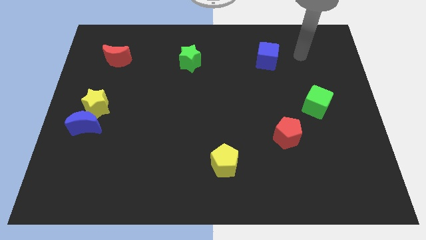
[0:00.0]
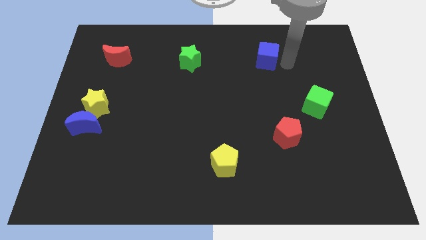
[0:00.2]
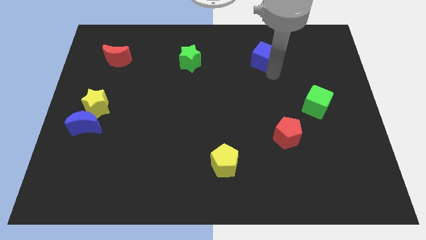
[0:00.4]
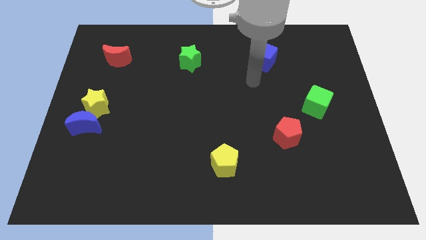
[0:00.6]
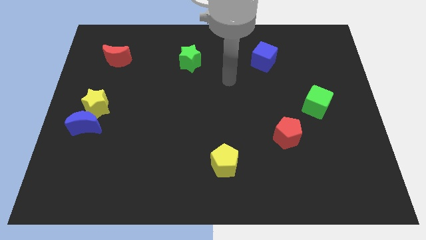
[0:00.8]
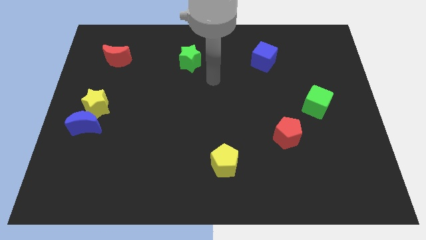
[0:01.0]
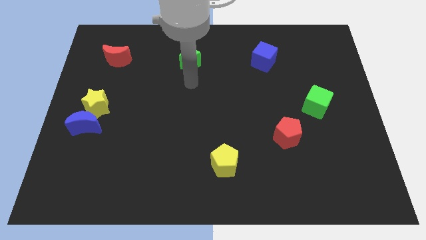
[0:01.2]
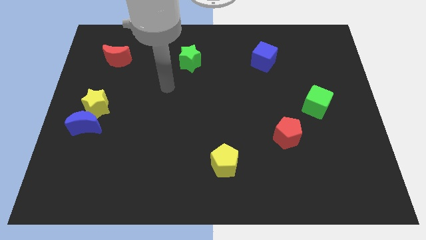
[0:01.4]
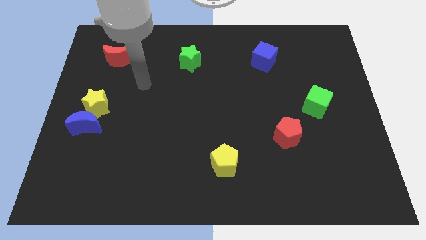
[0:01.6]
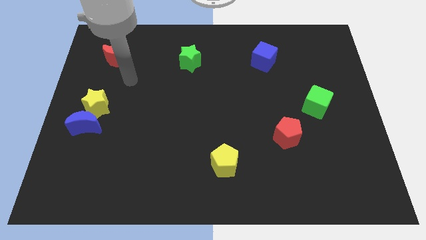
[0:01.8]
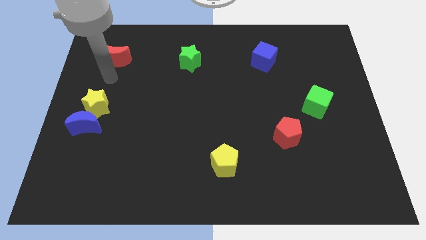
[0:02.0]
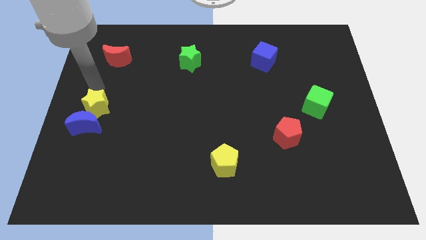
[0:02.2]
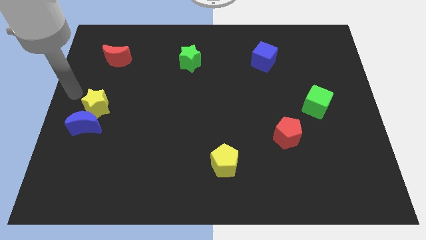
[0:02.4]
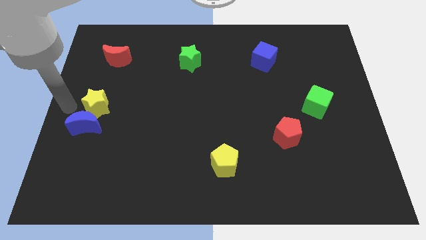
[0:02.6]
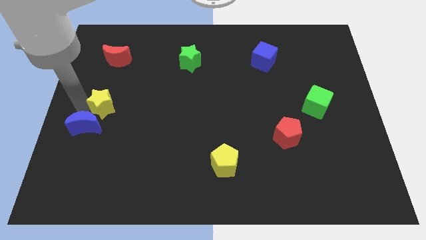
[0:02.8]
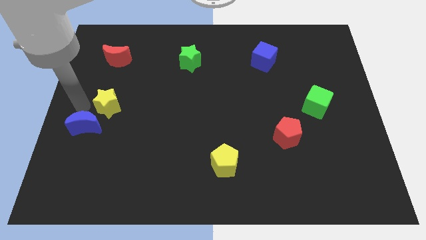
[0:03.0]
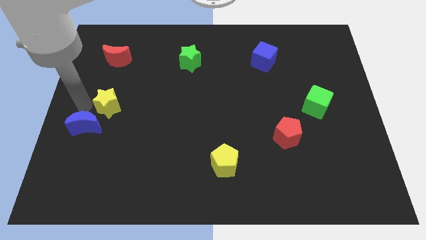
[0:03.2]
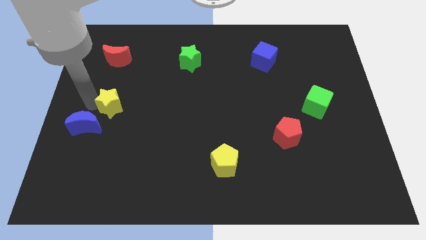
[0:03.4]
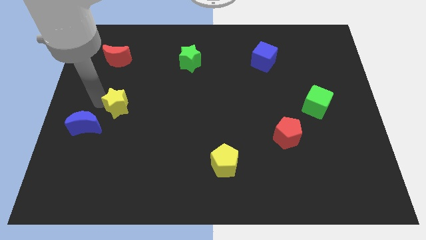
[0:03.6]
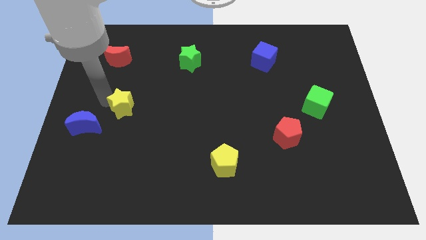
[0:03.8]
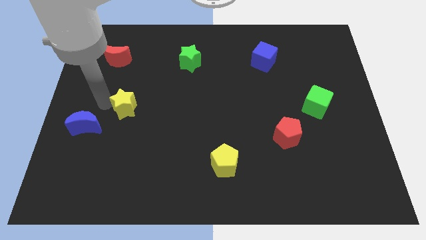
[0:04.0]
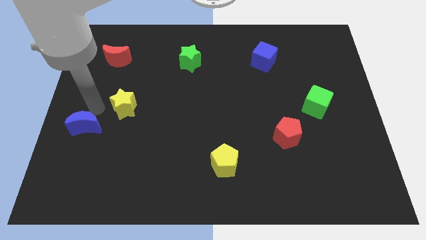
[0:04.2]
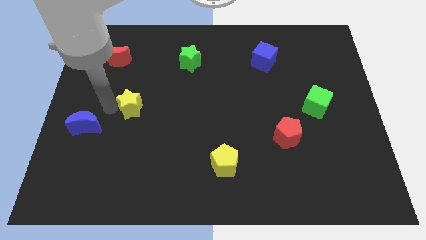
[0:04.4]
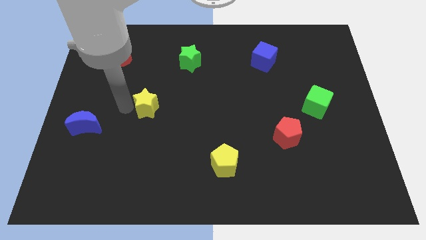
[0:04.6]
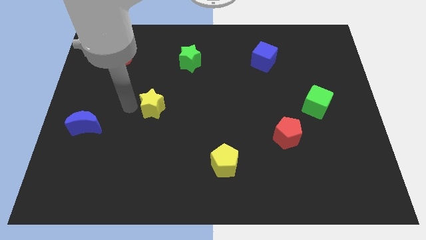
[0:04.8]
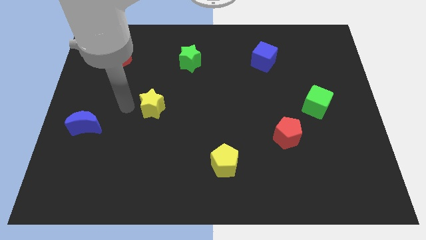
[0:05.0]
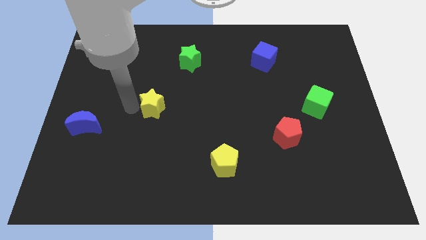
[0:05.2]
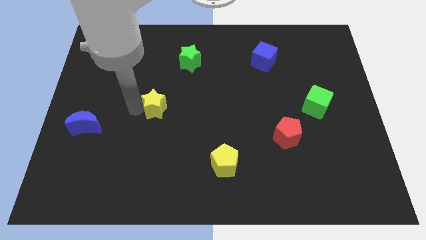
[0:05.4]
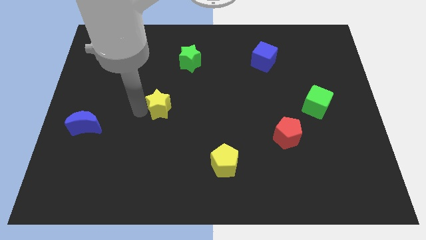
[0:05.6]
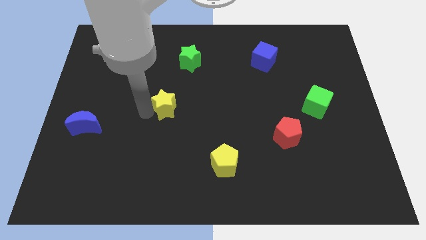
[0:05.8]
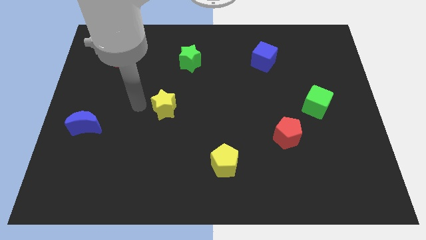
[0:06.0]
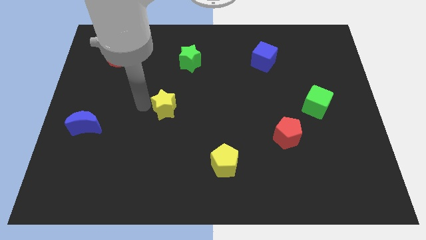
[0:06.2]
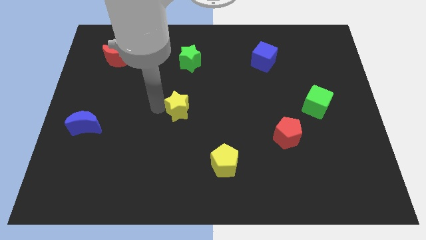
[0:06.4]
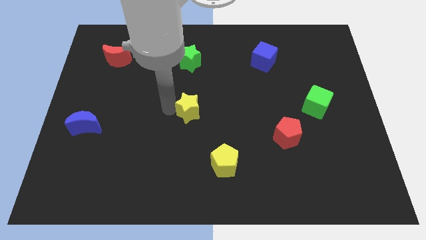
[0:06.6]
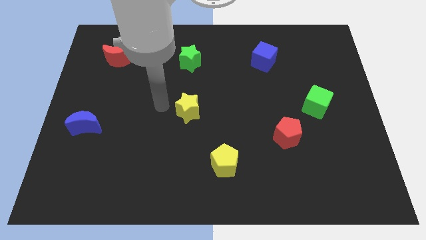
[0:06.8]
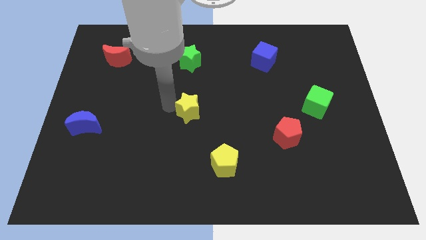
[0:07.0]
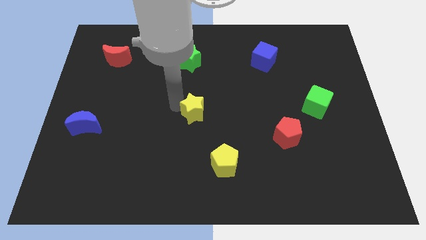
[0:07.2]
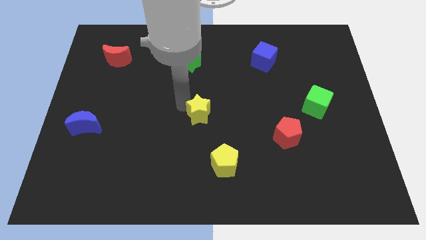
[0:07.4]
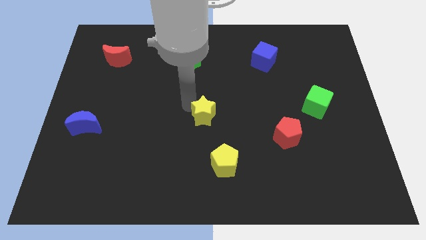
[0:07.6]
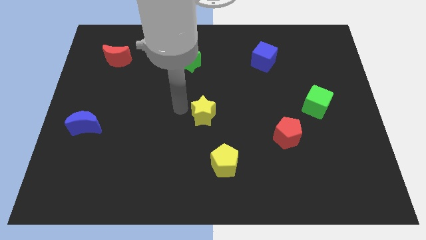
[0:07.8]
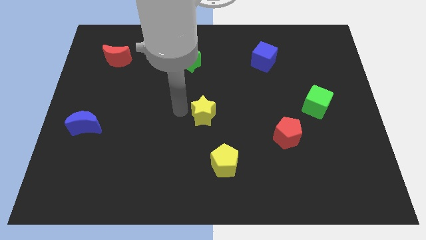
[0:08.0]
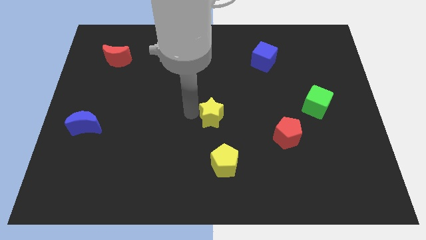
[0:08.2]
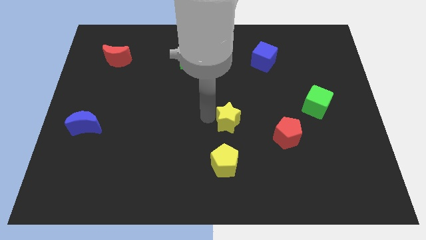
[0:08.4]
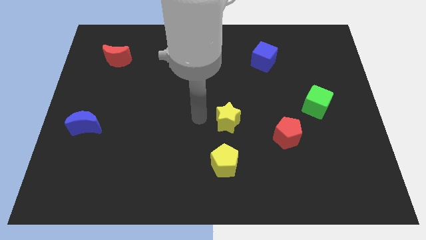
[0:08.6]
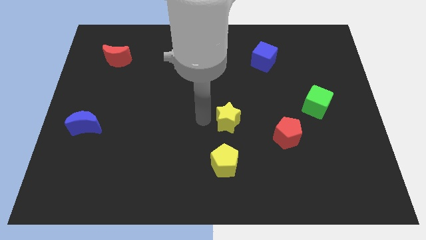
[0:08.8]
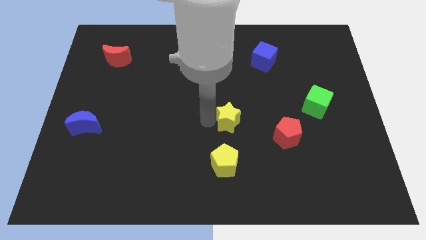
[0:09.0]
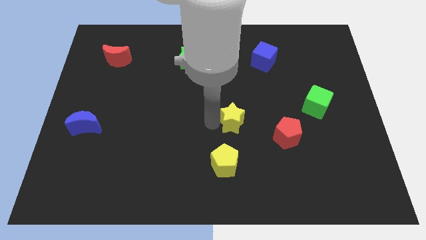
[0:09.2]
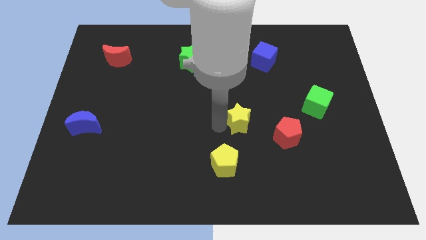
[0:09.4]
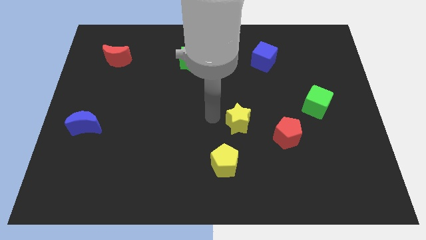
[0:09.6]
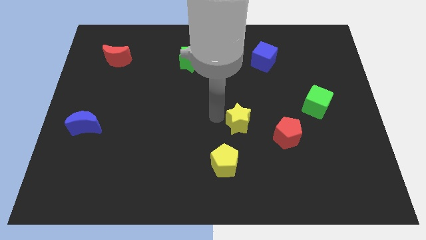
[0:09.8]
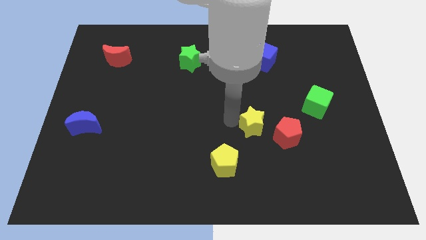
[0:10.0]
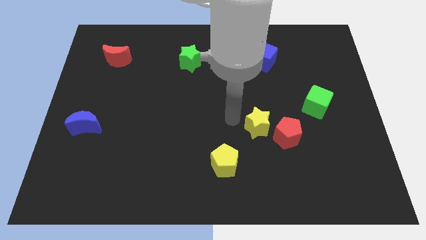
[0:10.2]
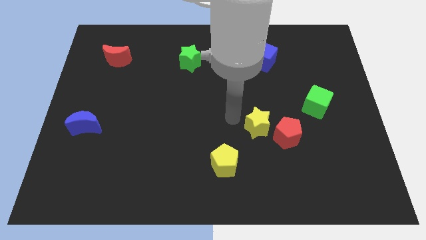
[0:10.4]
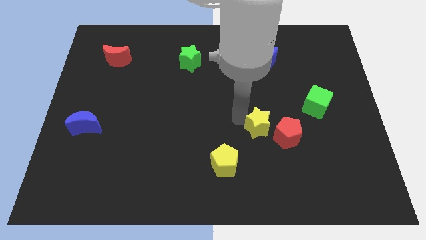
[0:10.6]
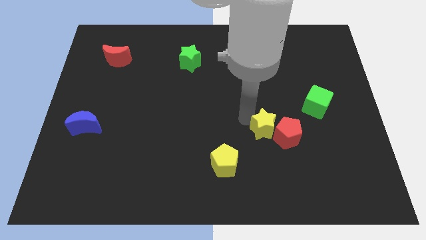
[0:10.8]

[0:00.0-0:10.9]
move the yellow star towards the red pentagon

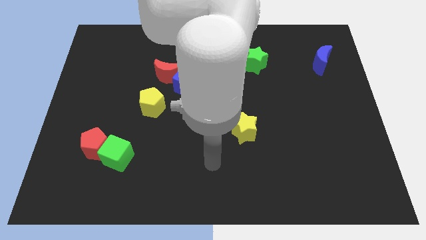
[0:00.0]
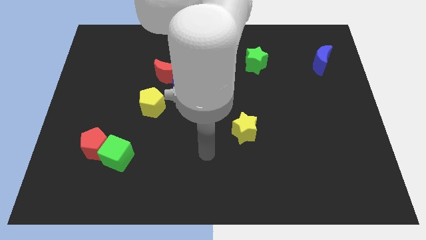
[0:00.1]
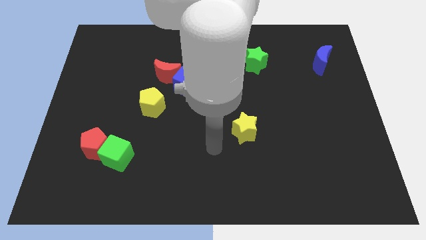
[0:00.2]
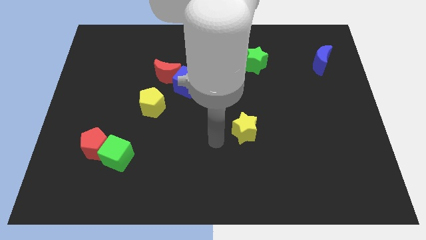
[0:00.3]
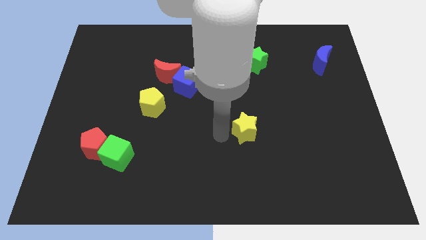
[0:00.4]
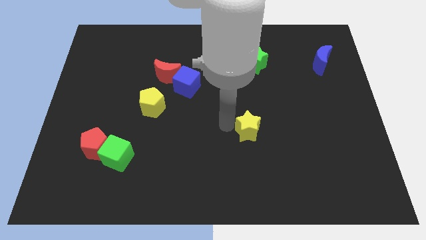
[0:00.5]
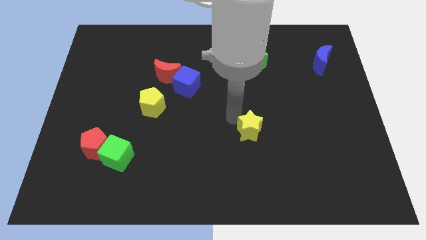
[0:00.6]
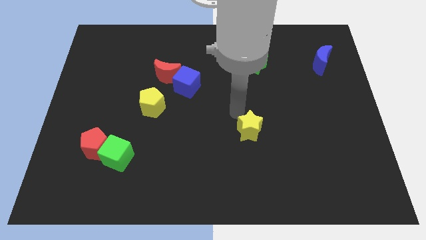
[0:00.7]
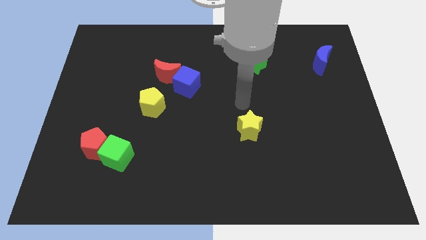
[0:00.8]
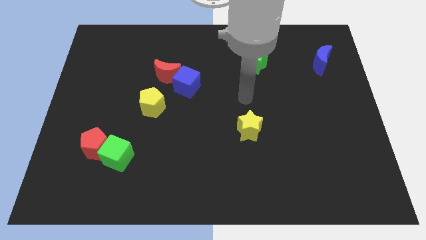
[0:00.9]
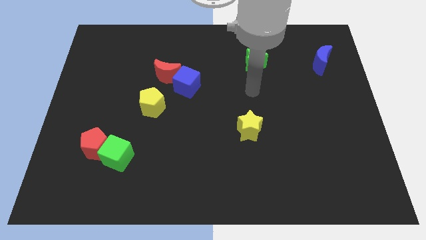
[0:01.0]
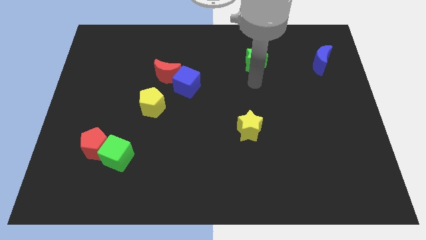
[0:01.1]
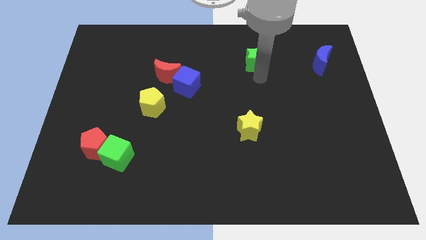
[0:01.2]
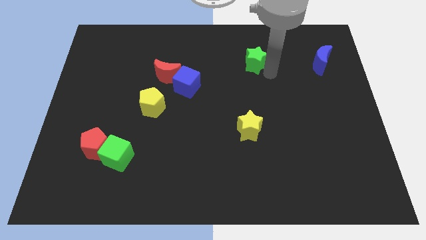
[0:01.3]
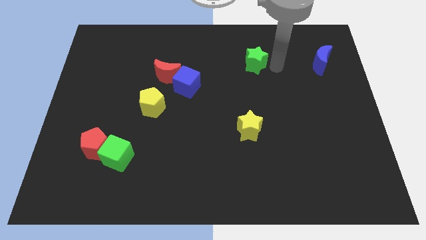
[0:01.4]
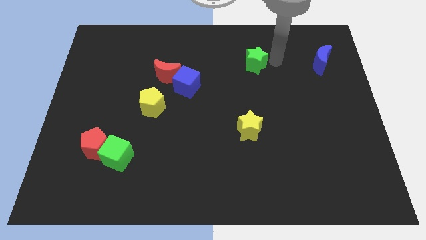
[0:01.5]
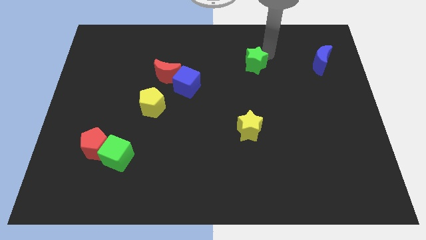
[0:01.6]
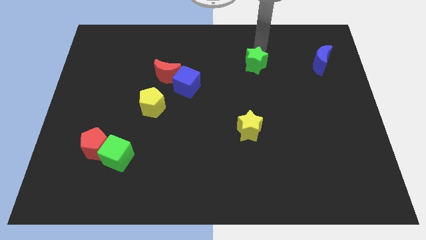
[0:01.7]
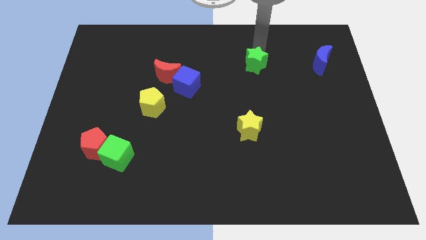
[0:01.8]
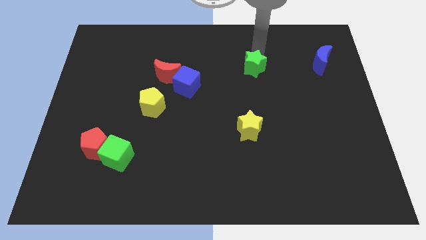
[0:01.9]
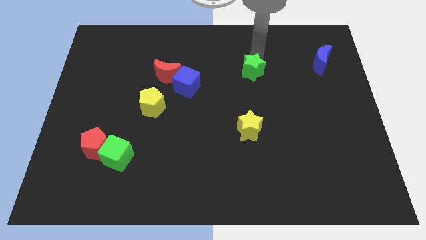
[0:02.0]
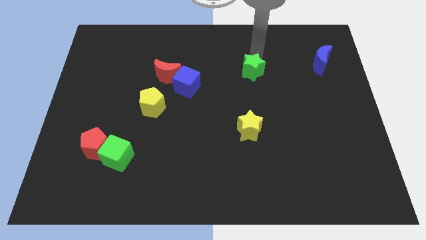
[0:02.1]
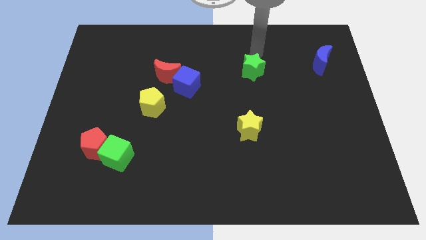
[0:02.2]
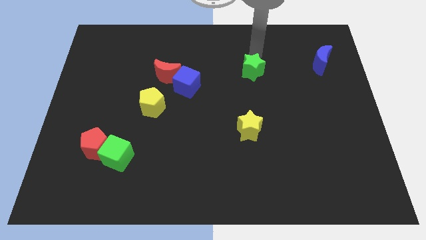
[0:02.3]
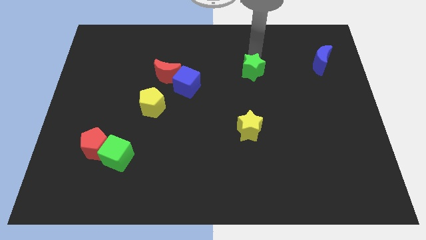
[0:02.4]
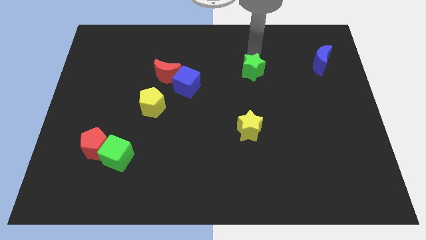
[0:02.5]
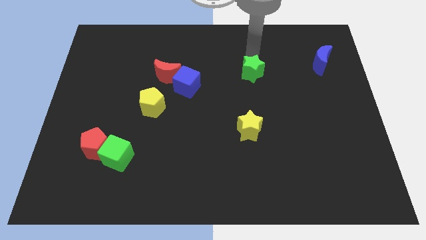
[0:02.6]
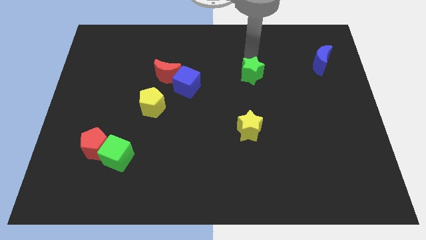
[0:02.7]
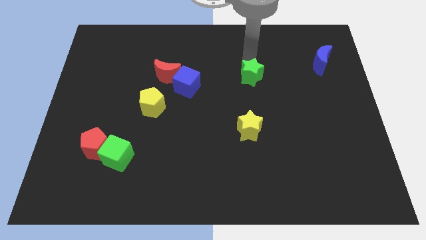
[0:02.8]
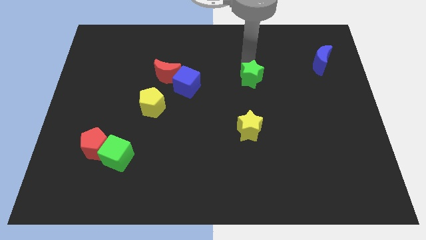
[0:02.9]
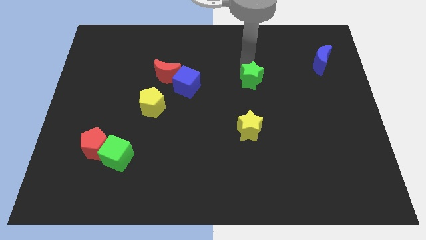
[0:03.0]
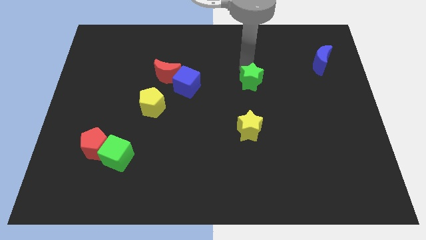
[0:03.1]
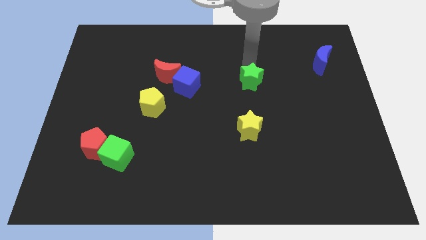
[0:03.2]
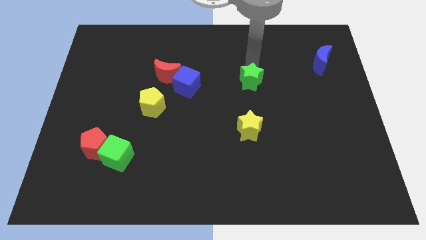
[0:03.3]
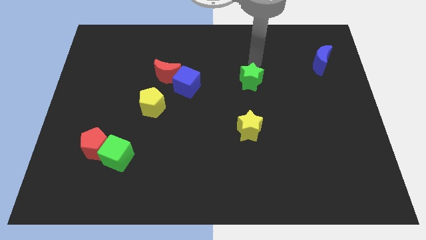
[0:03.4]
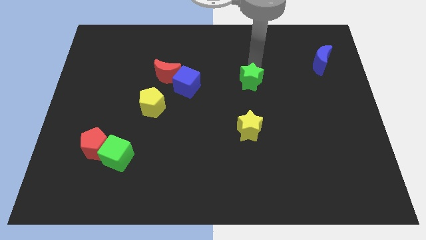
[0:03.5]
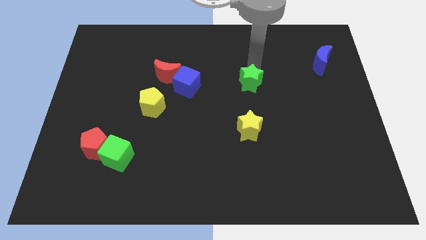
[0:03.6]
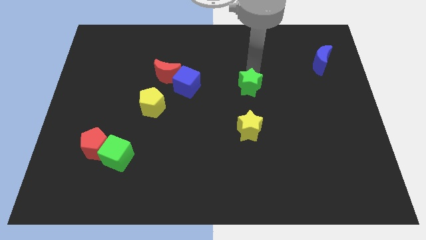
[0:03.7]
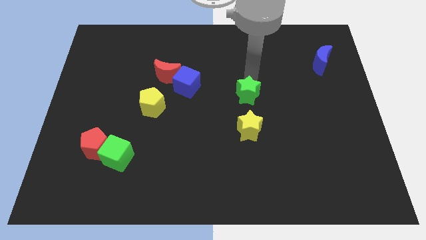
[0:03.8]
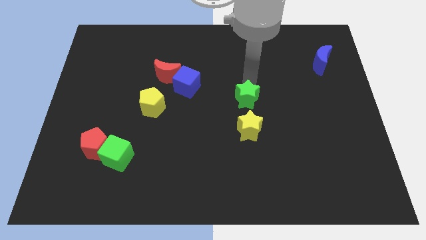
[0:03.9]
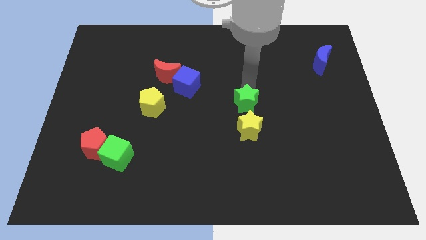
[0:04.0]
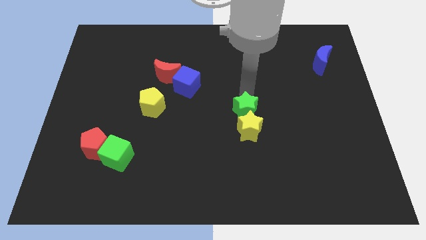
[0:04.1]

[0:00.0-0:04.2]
slide the green star towards the yellow star
